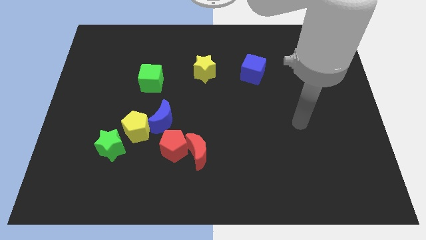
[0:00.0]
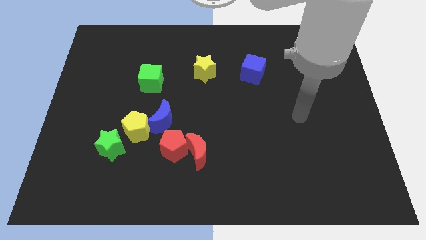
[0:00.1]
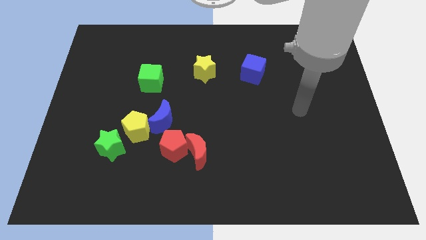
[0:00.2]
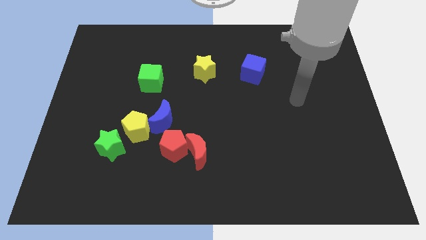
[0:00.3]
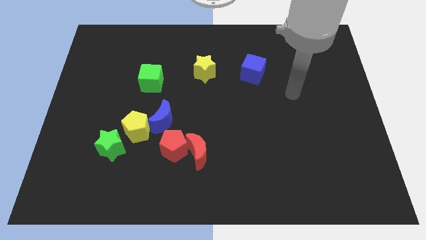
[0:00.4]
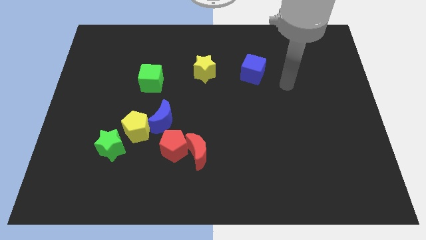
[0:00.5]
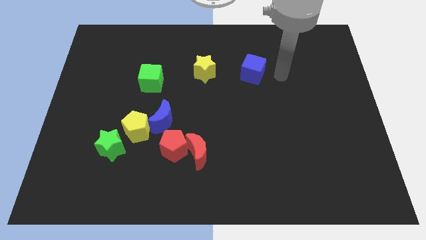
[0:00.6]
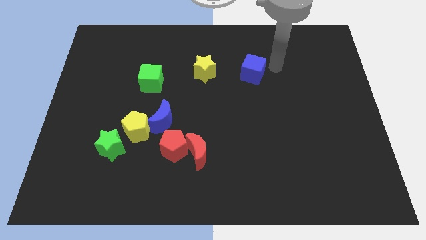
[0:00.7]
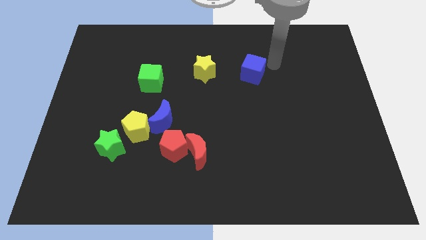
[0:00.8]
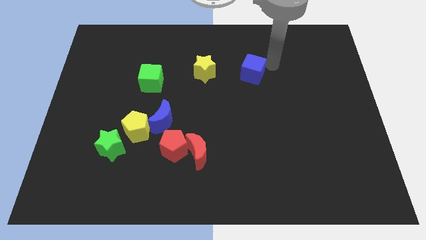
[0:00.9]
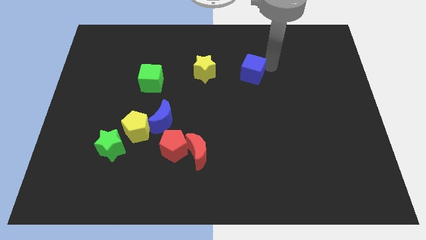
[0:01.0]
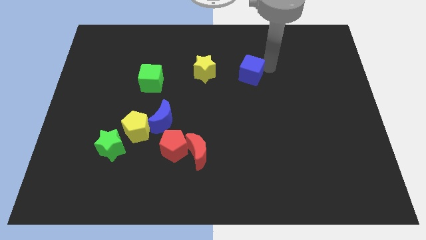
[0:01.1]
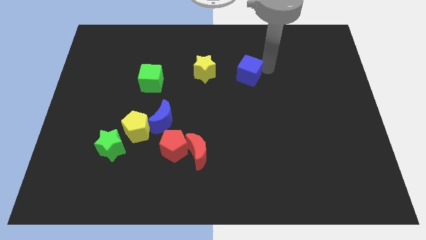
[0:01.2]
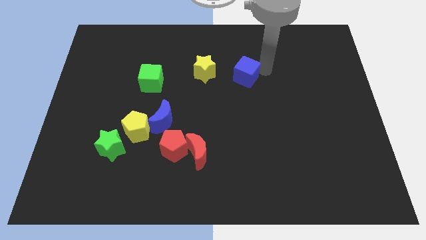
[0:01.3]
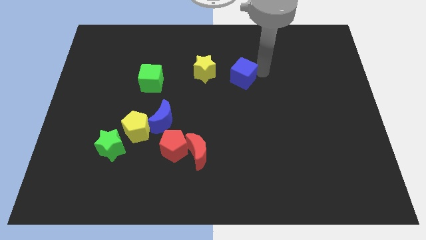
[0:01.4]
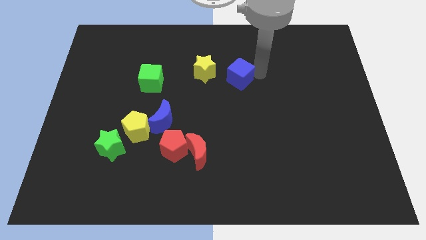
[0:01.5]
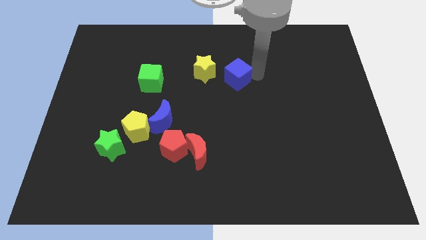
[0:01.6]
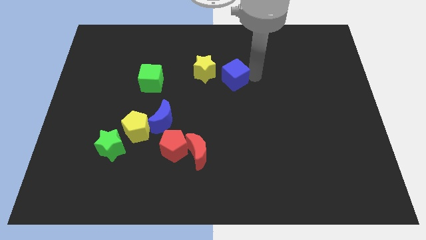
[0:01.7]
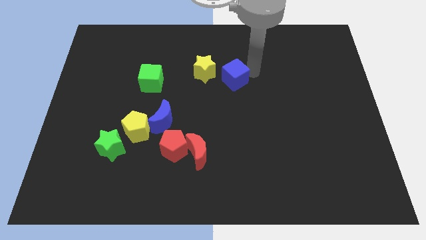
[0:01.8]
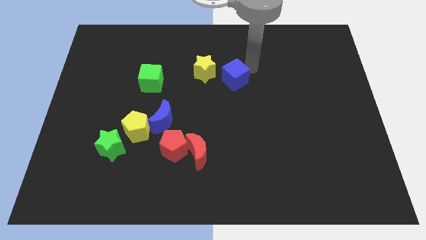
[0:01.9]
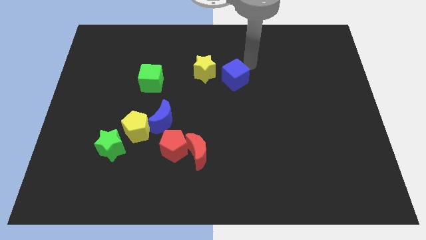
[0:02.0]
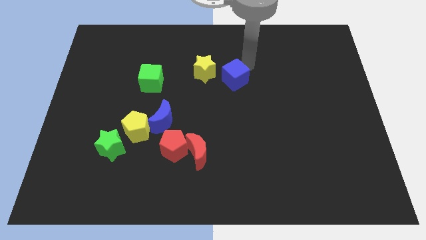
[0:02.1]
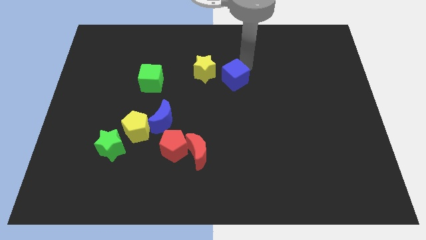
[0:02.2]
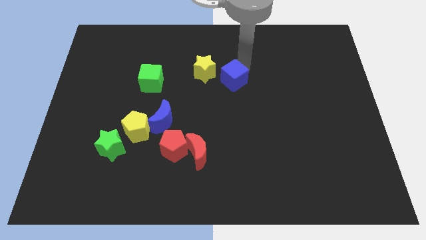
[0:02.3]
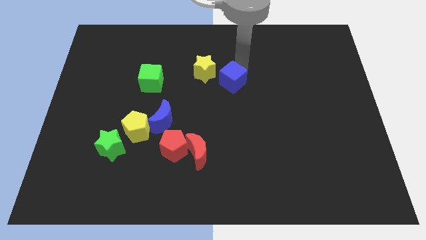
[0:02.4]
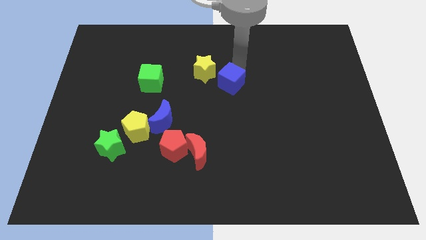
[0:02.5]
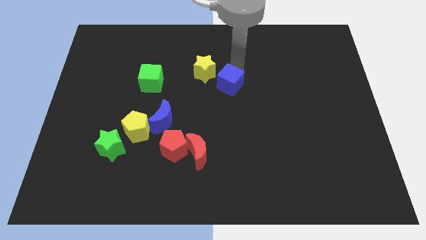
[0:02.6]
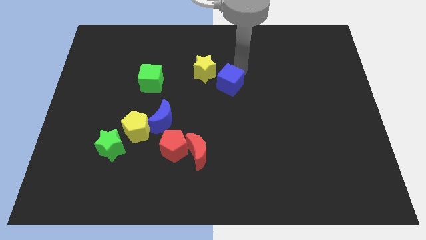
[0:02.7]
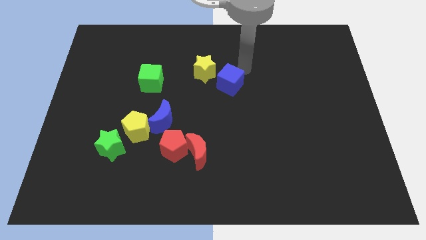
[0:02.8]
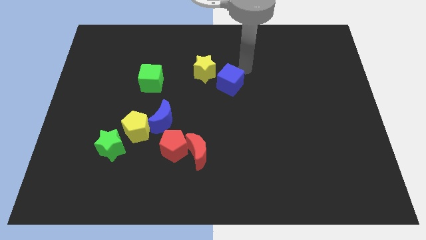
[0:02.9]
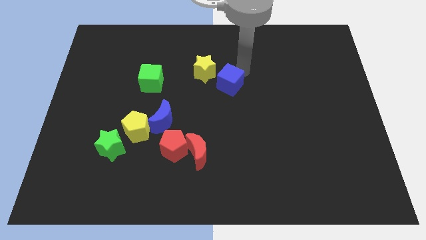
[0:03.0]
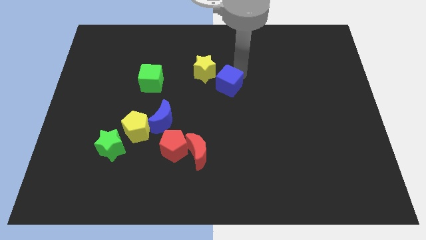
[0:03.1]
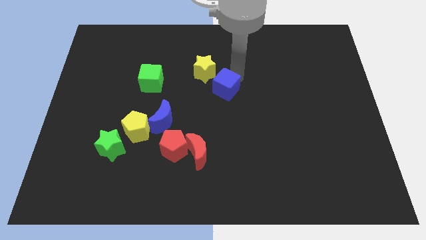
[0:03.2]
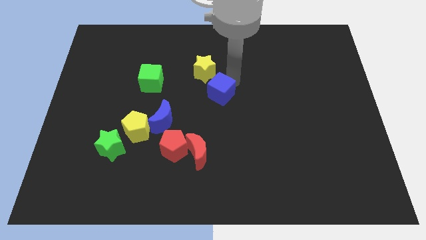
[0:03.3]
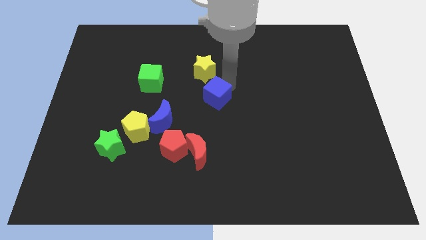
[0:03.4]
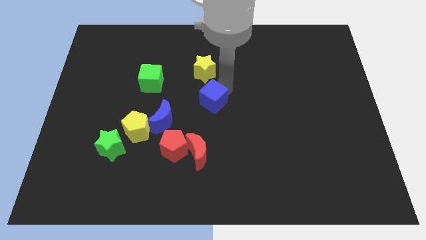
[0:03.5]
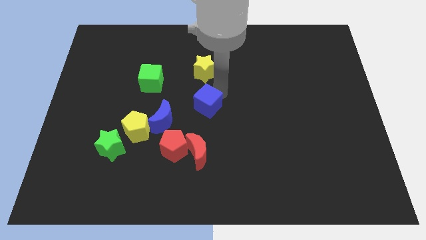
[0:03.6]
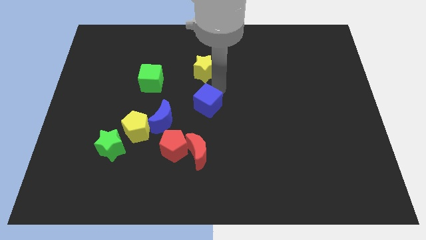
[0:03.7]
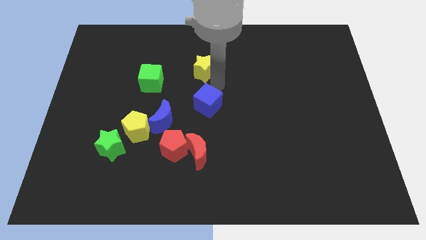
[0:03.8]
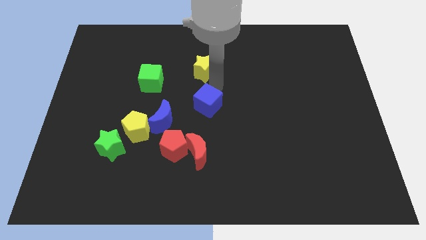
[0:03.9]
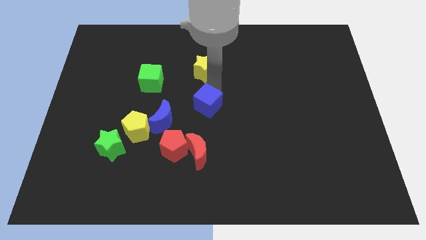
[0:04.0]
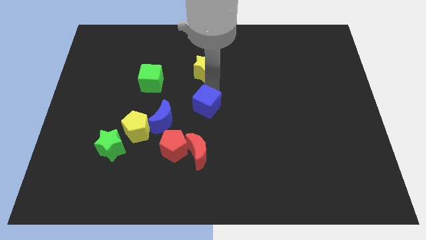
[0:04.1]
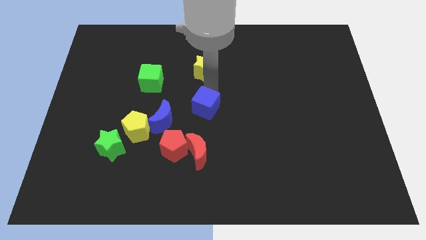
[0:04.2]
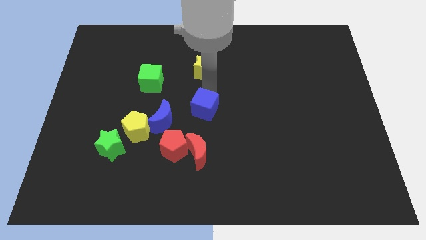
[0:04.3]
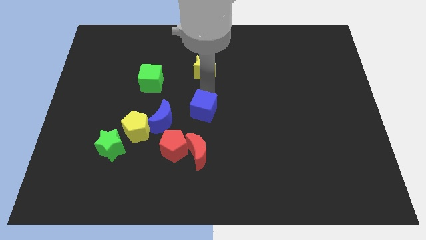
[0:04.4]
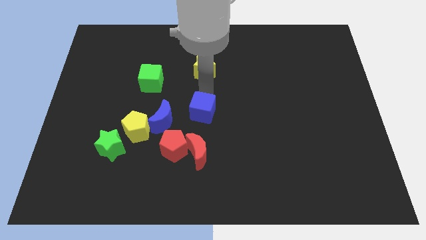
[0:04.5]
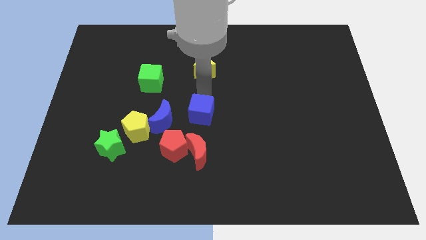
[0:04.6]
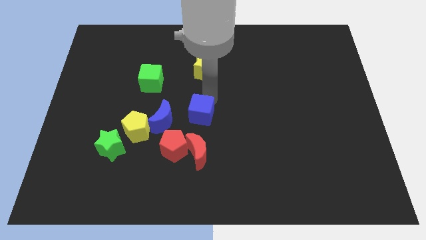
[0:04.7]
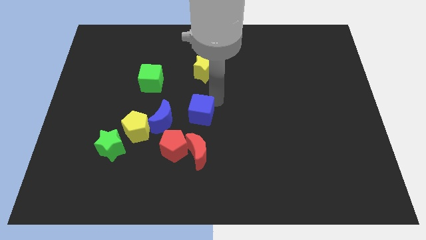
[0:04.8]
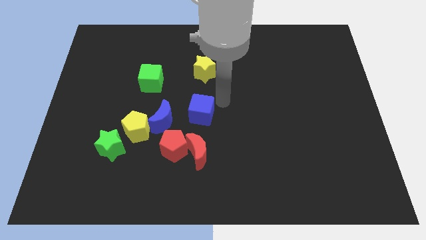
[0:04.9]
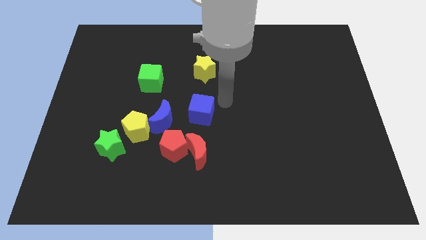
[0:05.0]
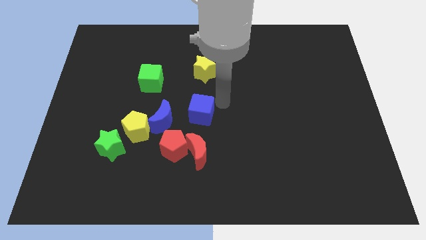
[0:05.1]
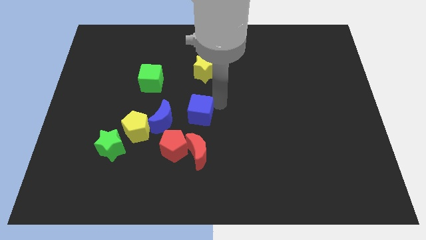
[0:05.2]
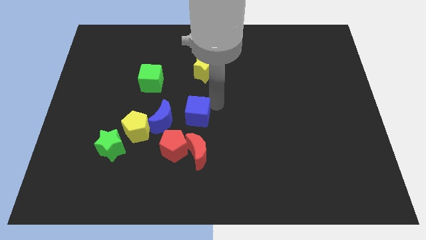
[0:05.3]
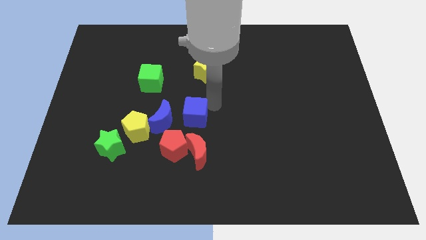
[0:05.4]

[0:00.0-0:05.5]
push the blue cube downwards and then left

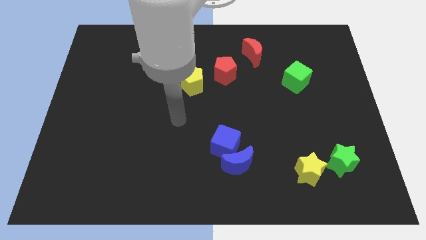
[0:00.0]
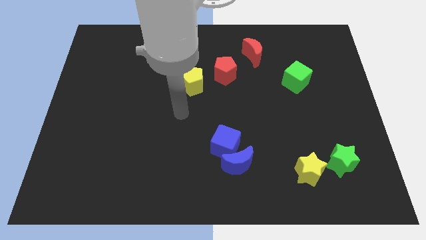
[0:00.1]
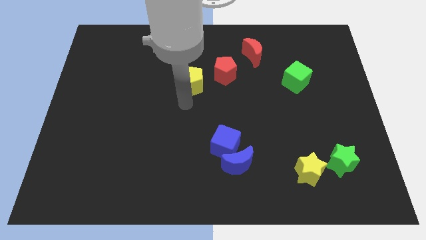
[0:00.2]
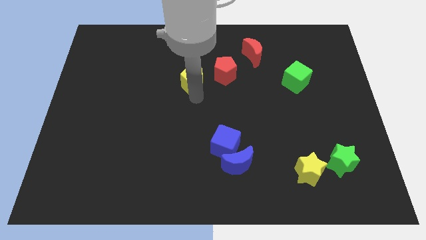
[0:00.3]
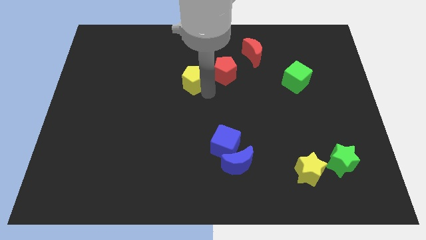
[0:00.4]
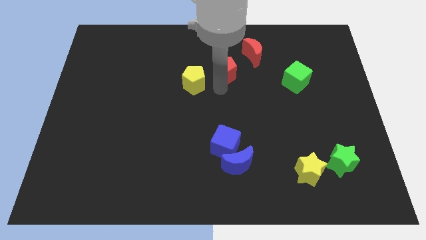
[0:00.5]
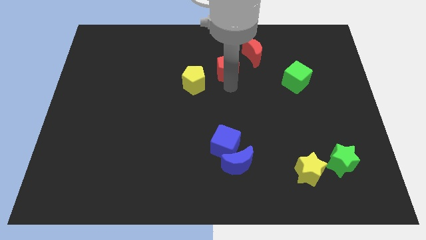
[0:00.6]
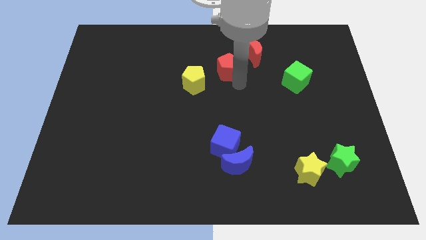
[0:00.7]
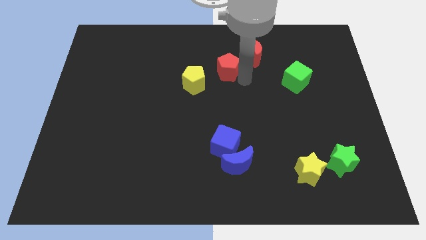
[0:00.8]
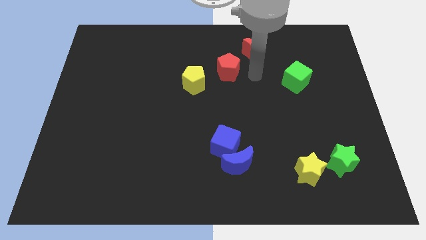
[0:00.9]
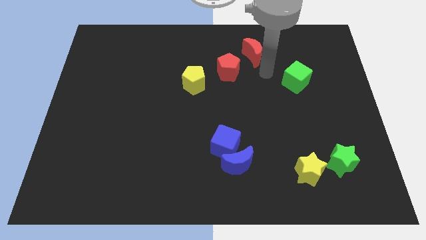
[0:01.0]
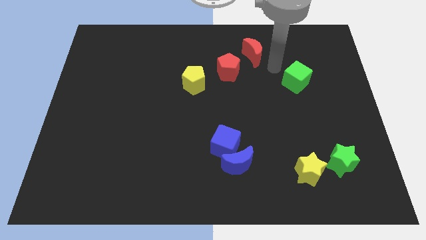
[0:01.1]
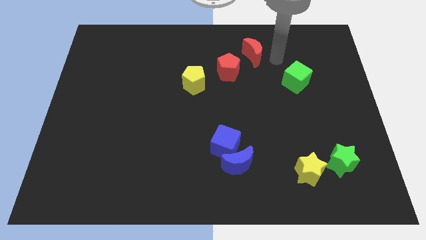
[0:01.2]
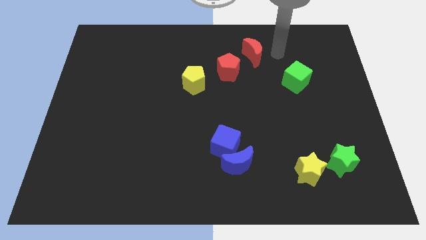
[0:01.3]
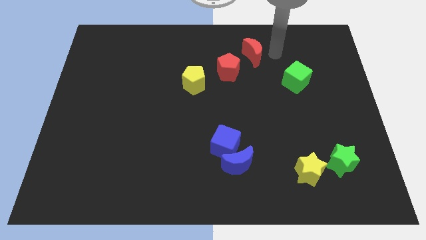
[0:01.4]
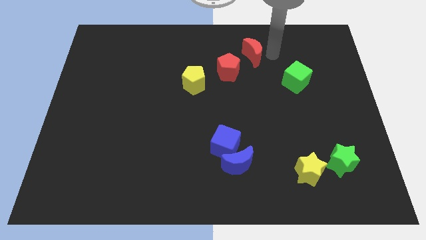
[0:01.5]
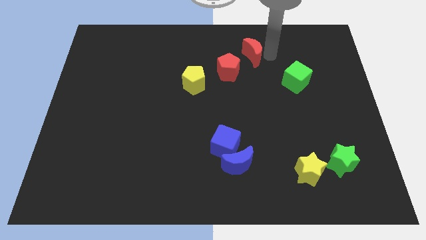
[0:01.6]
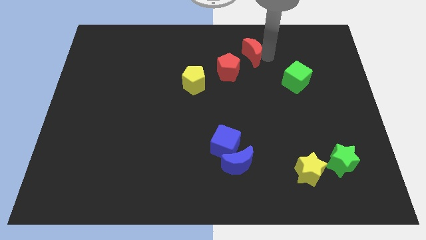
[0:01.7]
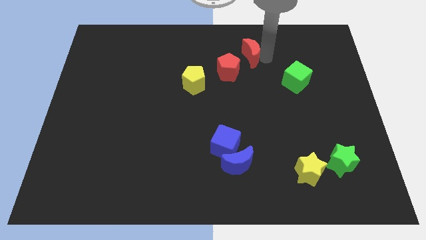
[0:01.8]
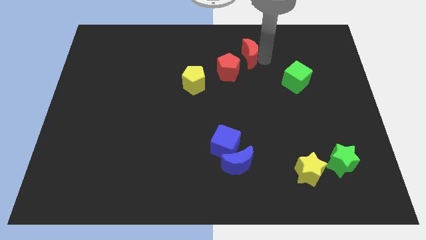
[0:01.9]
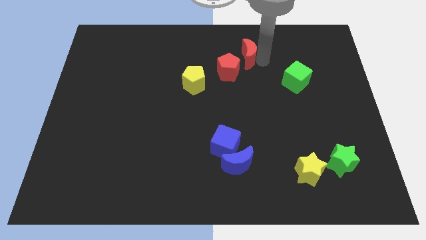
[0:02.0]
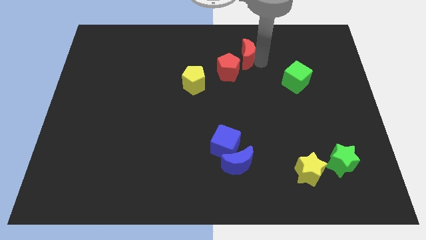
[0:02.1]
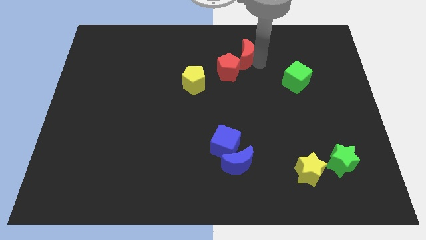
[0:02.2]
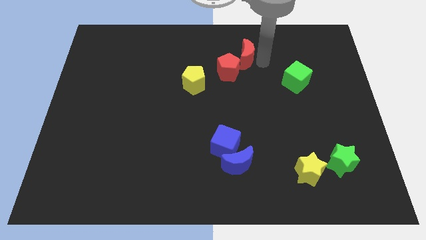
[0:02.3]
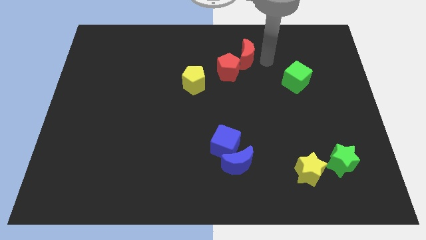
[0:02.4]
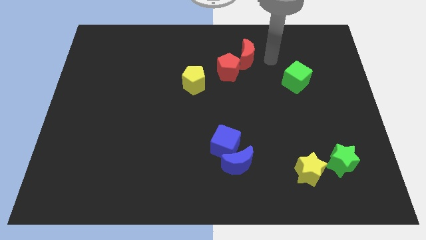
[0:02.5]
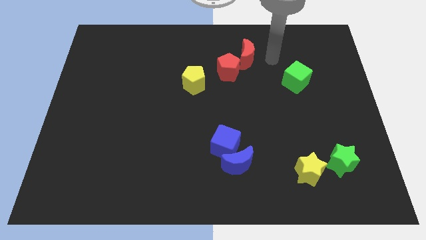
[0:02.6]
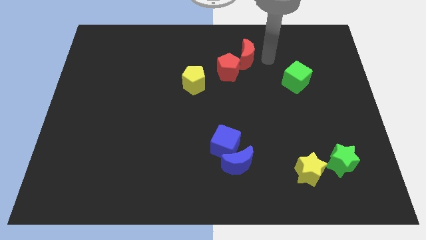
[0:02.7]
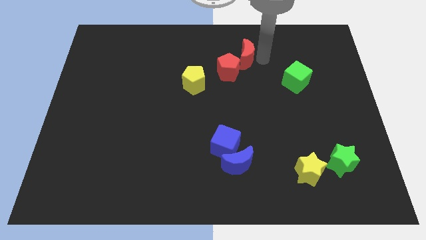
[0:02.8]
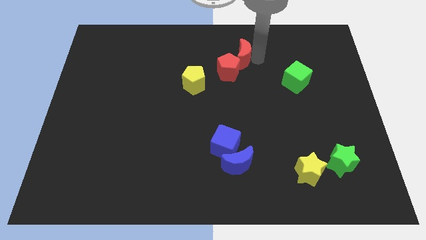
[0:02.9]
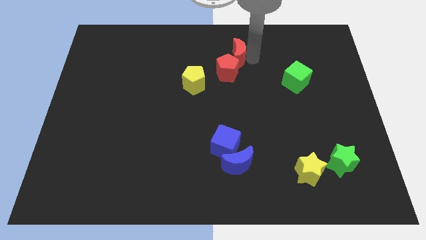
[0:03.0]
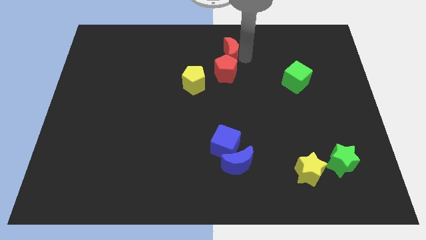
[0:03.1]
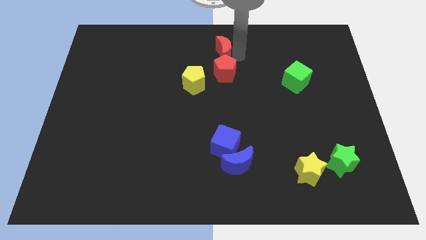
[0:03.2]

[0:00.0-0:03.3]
move the red moon a little to the left
